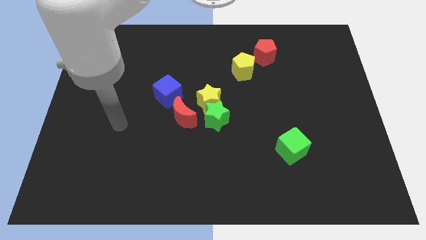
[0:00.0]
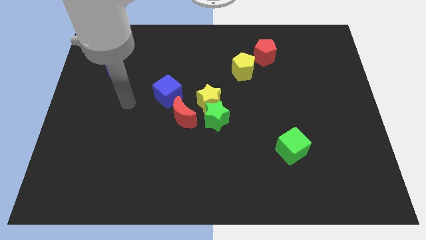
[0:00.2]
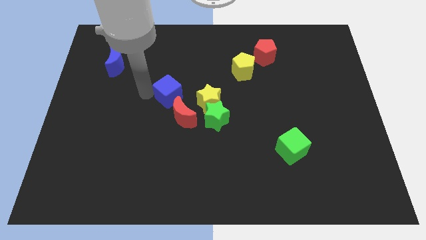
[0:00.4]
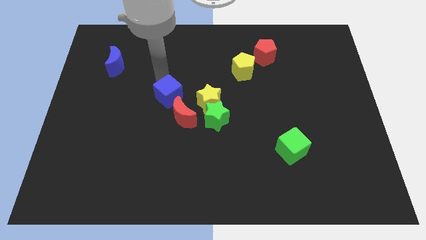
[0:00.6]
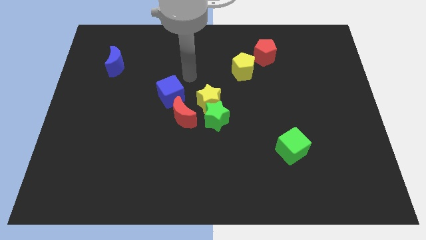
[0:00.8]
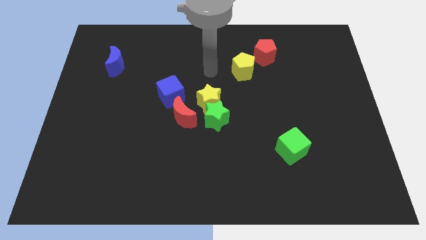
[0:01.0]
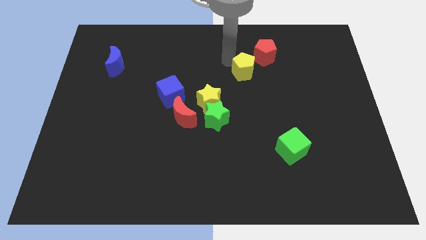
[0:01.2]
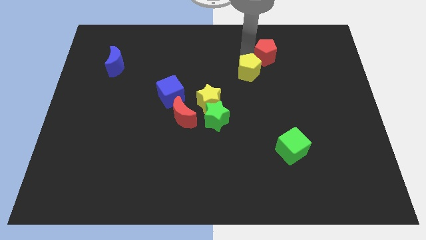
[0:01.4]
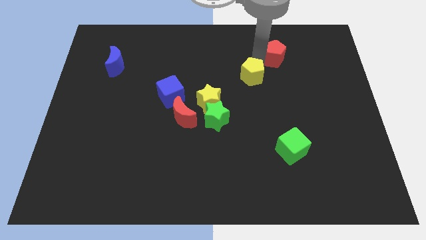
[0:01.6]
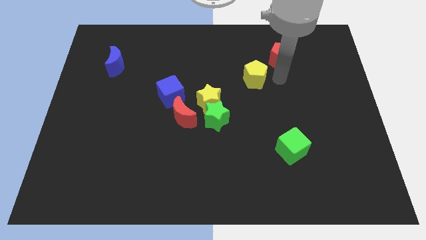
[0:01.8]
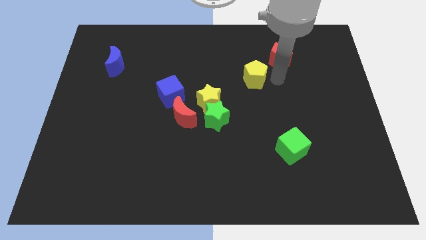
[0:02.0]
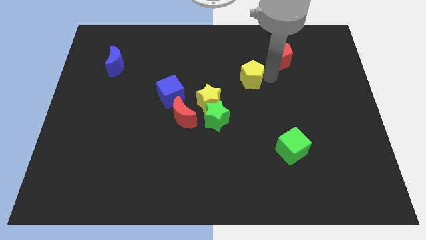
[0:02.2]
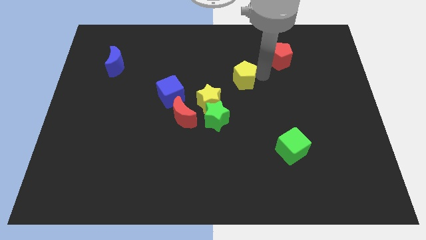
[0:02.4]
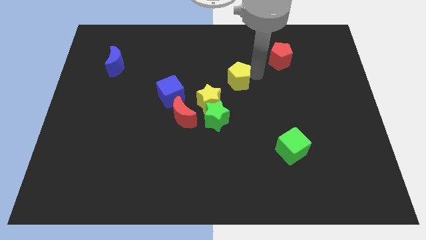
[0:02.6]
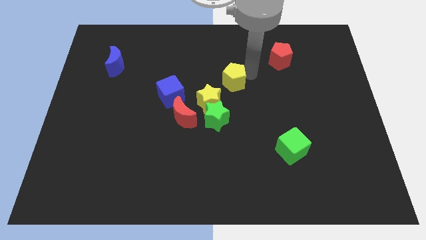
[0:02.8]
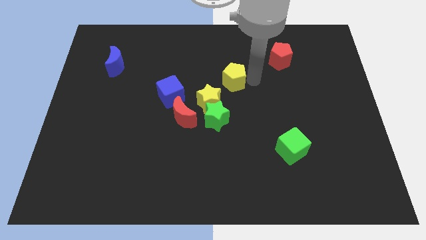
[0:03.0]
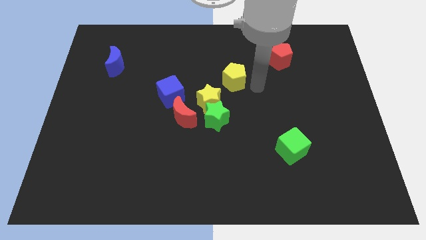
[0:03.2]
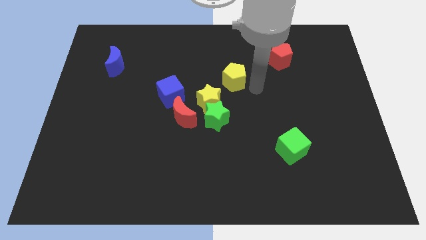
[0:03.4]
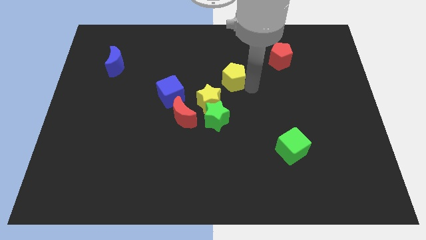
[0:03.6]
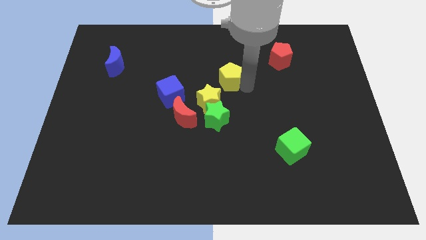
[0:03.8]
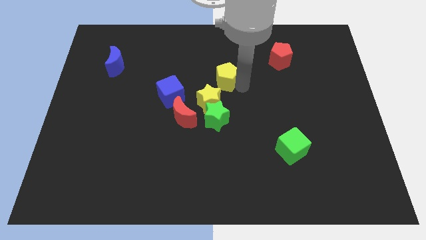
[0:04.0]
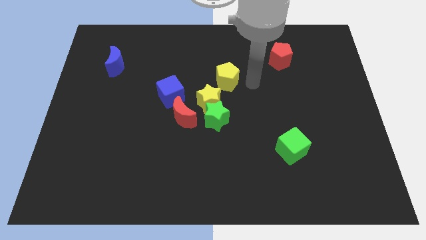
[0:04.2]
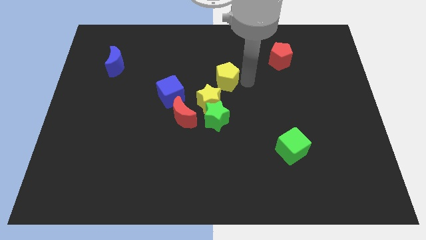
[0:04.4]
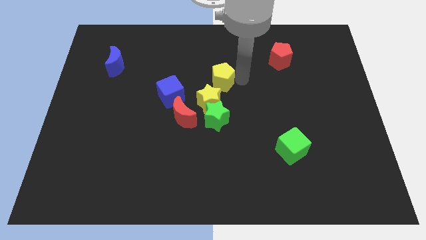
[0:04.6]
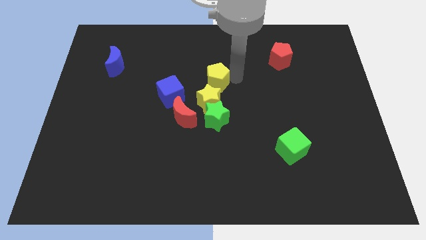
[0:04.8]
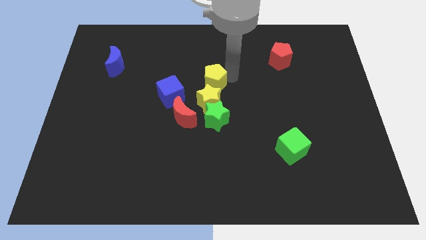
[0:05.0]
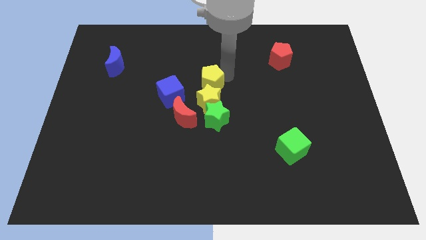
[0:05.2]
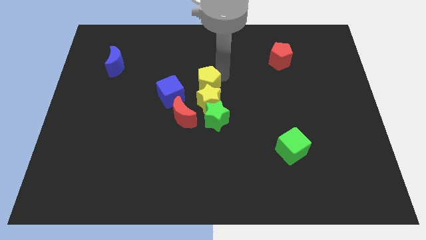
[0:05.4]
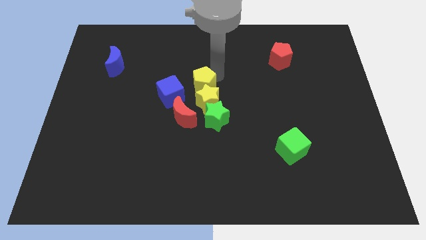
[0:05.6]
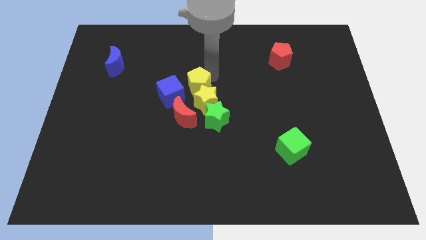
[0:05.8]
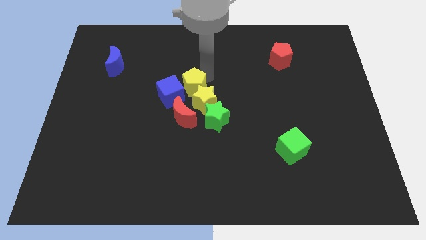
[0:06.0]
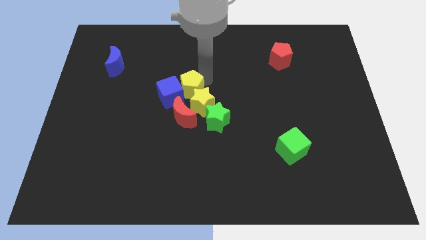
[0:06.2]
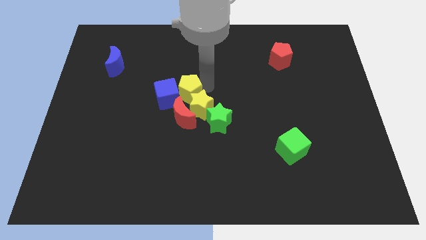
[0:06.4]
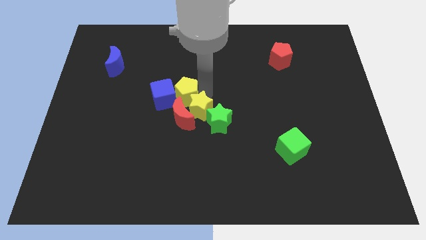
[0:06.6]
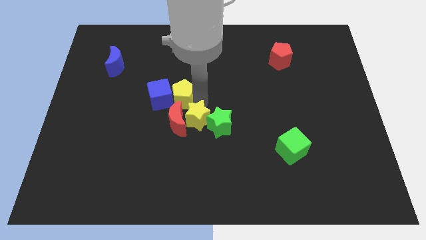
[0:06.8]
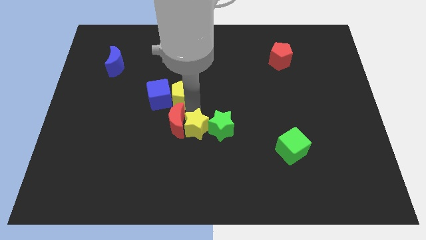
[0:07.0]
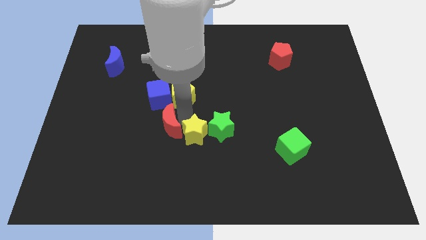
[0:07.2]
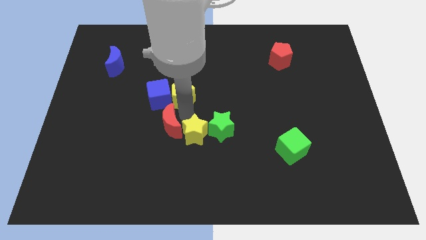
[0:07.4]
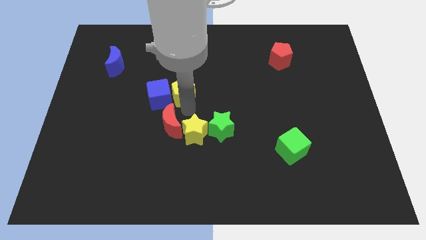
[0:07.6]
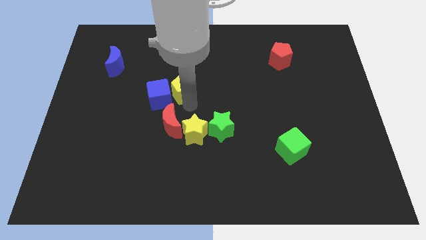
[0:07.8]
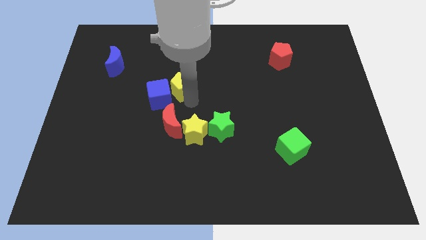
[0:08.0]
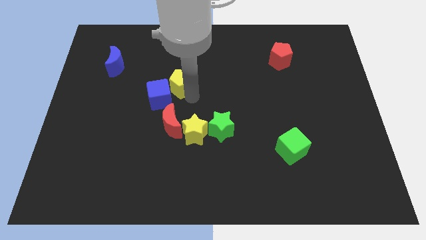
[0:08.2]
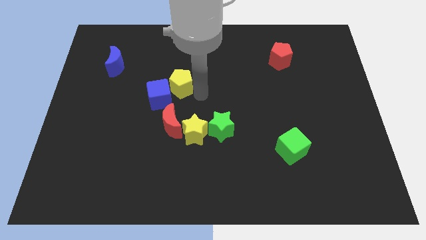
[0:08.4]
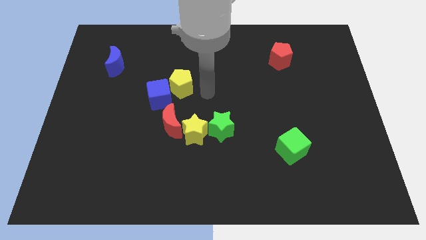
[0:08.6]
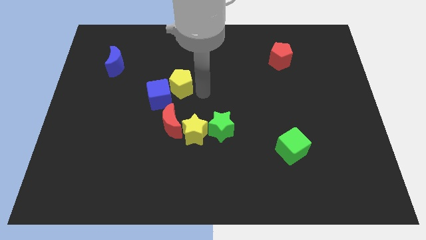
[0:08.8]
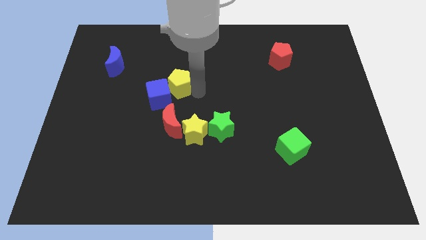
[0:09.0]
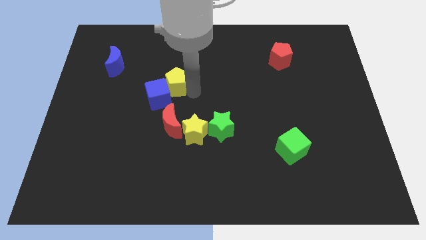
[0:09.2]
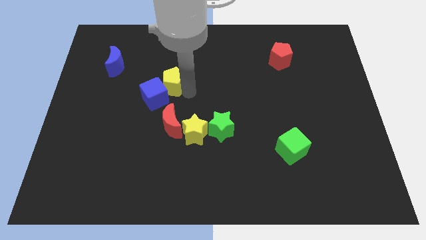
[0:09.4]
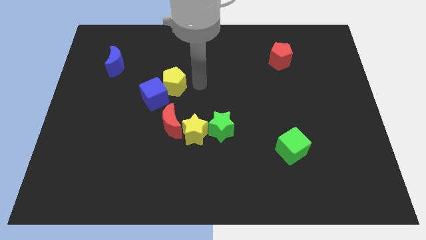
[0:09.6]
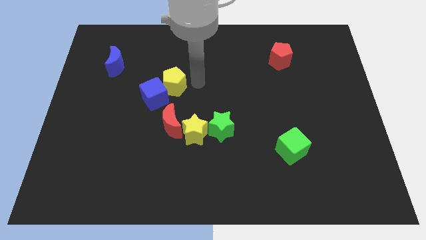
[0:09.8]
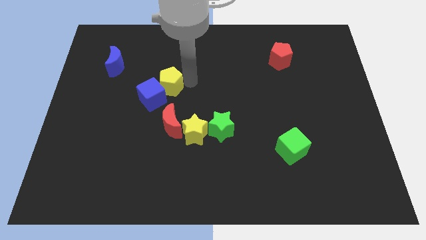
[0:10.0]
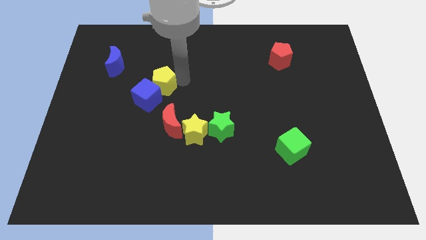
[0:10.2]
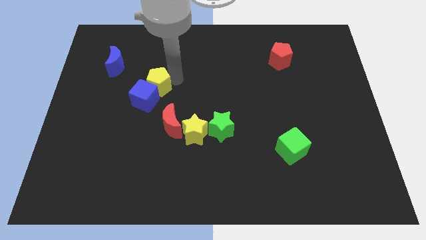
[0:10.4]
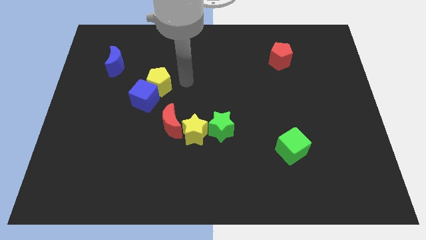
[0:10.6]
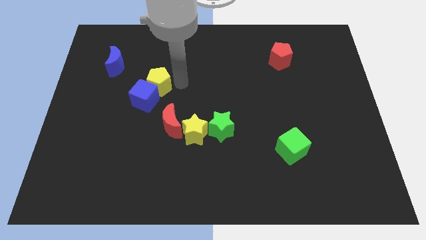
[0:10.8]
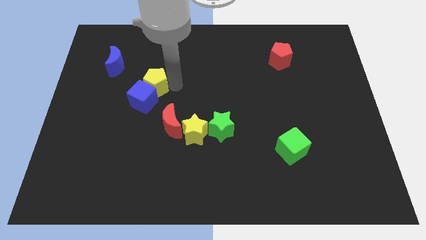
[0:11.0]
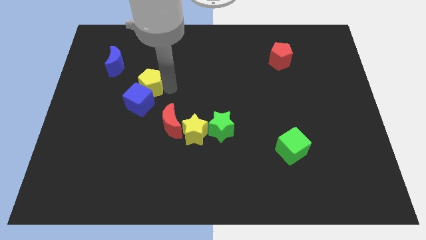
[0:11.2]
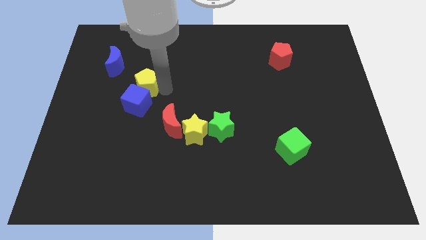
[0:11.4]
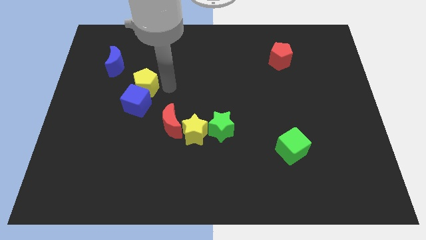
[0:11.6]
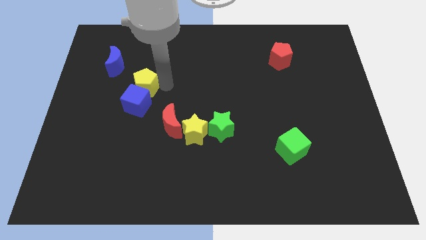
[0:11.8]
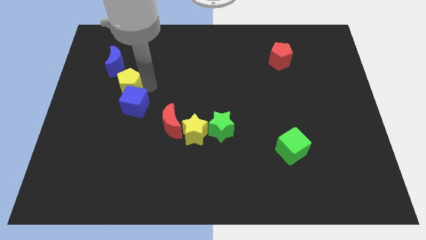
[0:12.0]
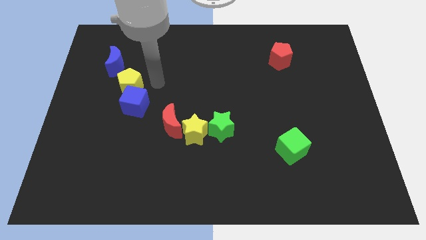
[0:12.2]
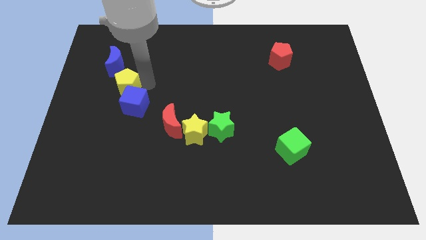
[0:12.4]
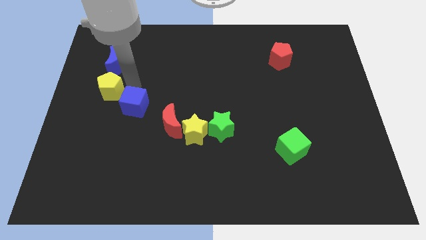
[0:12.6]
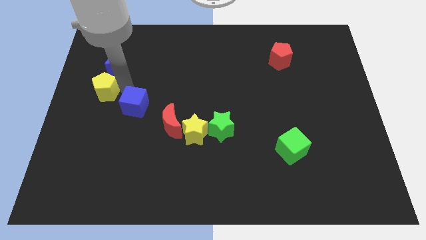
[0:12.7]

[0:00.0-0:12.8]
slide the yellow pentagon to the left side
